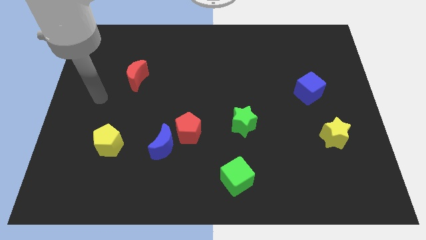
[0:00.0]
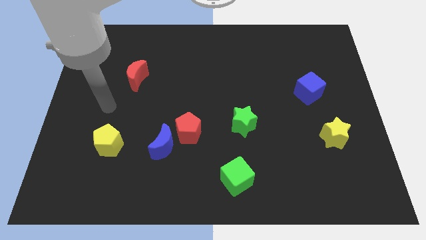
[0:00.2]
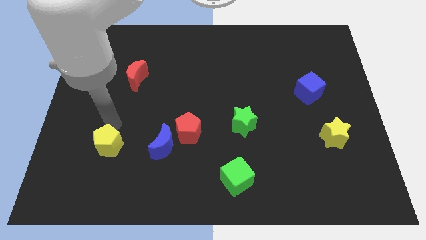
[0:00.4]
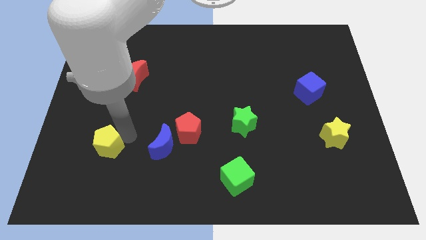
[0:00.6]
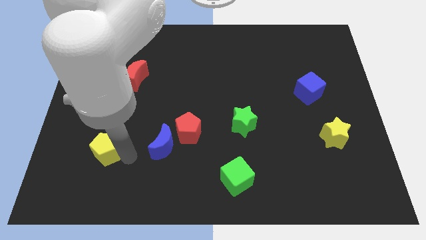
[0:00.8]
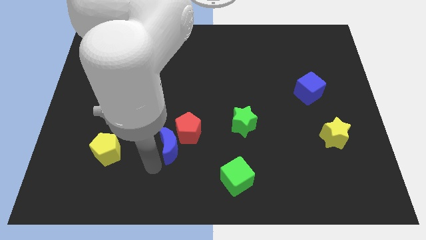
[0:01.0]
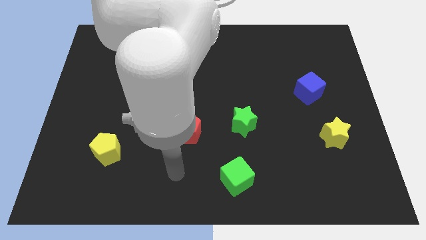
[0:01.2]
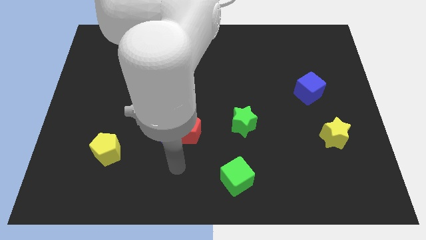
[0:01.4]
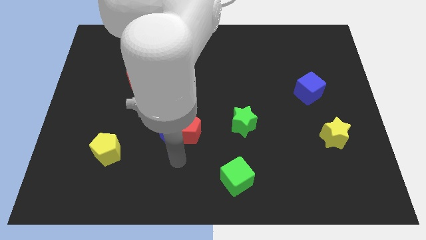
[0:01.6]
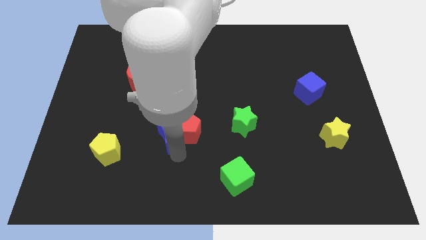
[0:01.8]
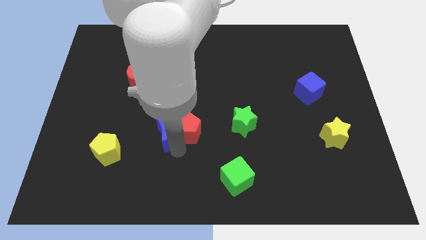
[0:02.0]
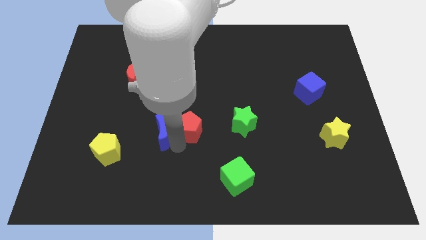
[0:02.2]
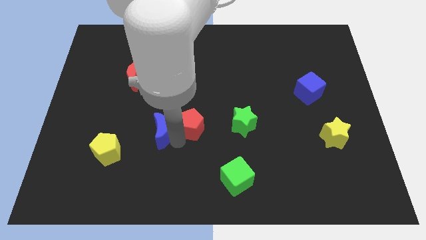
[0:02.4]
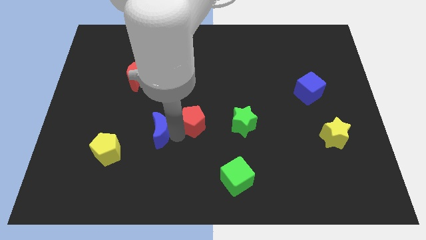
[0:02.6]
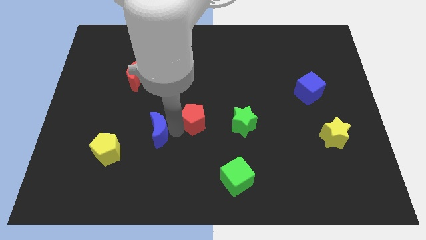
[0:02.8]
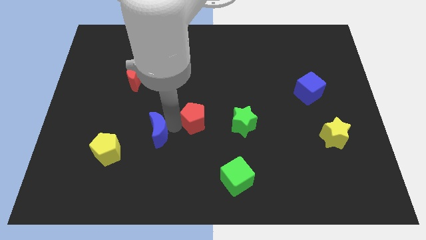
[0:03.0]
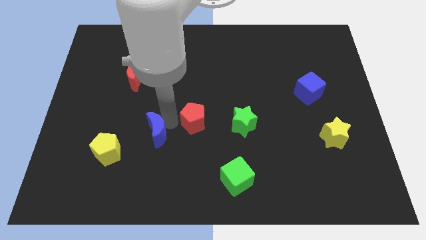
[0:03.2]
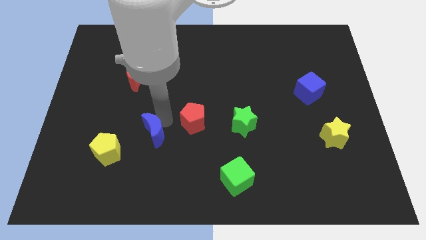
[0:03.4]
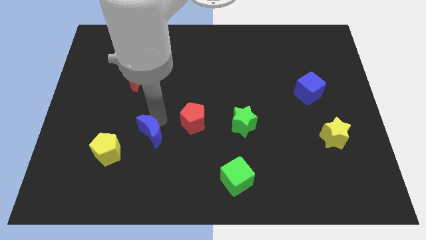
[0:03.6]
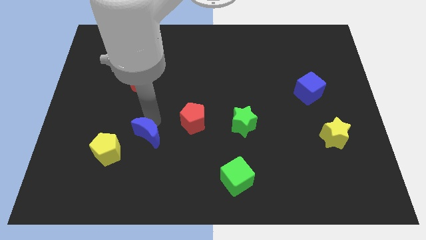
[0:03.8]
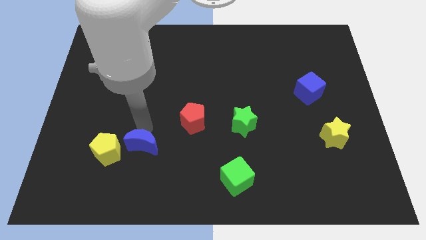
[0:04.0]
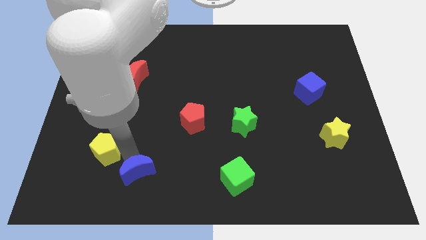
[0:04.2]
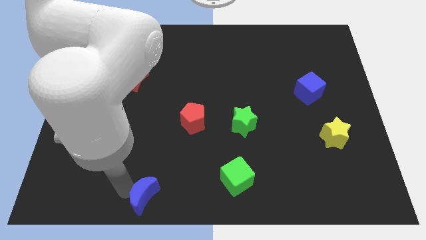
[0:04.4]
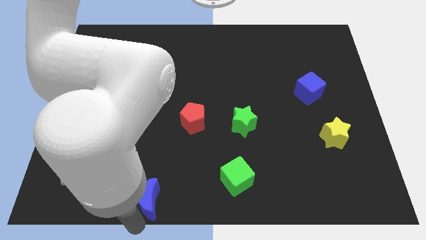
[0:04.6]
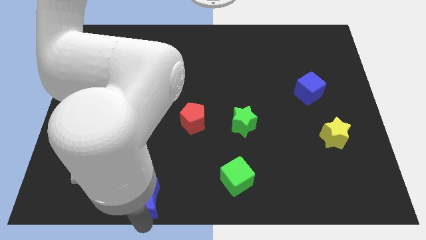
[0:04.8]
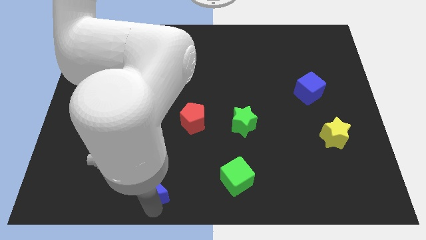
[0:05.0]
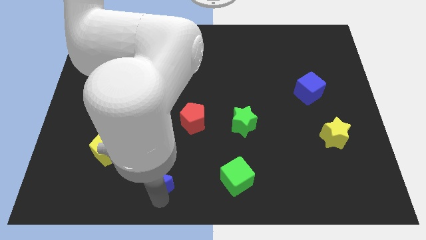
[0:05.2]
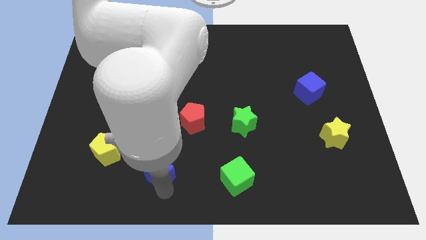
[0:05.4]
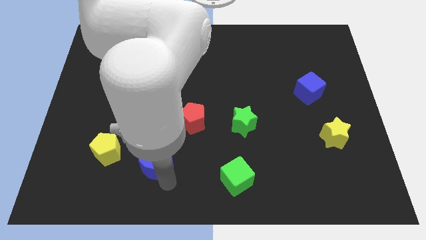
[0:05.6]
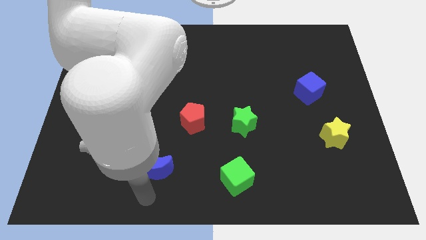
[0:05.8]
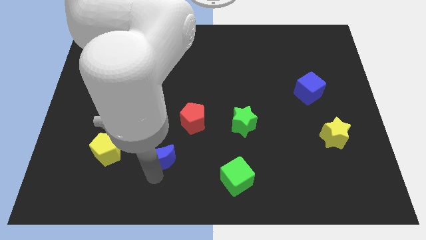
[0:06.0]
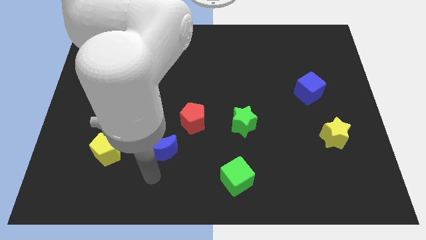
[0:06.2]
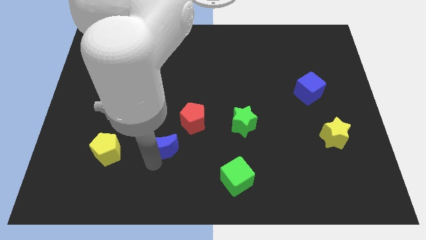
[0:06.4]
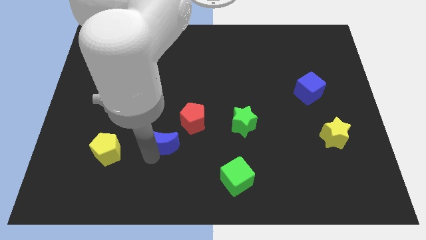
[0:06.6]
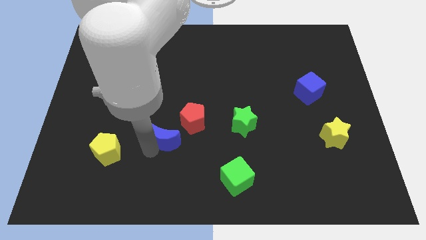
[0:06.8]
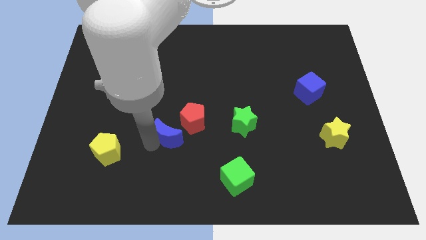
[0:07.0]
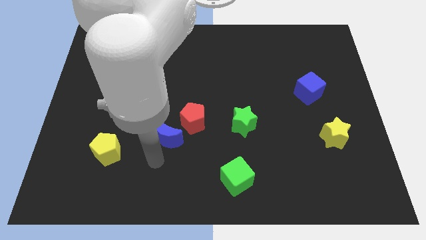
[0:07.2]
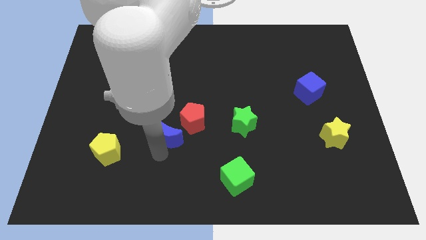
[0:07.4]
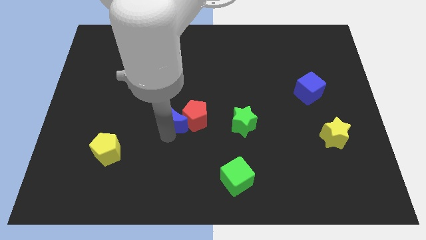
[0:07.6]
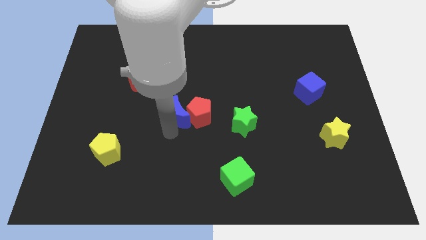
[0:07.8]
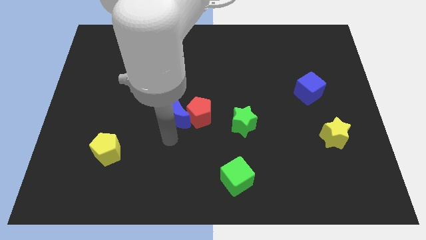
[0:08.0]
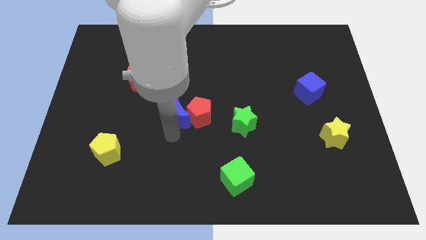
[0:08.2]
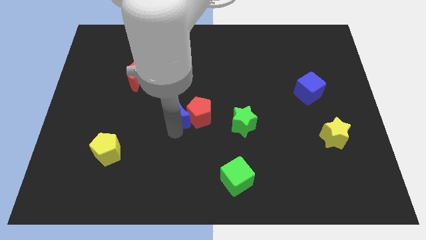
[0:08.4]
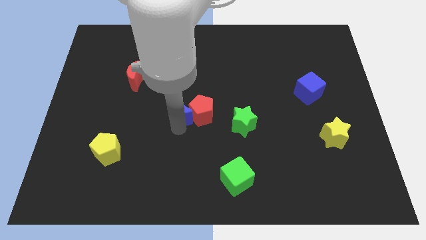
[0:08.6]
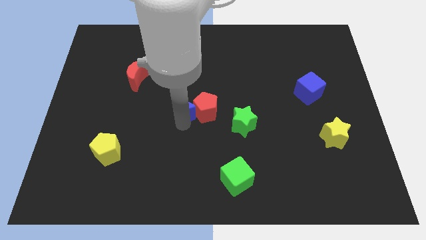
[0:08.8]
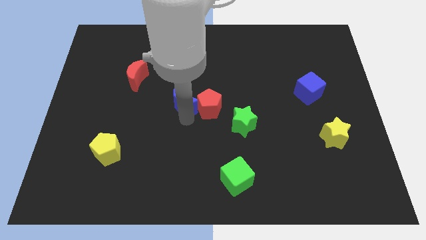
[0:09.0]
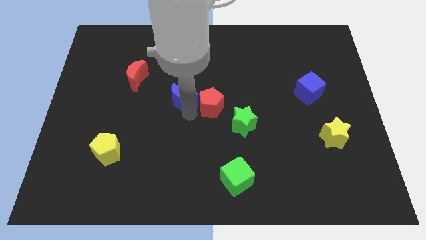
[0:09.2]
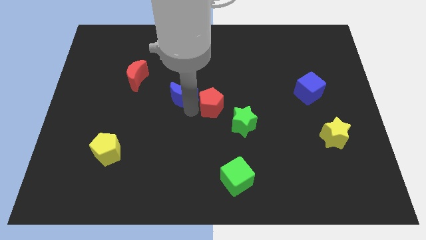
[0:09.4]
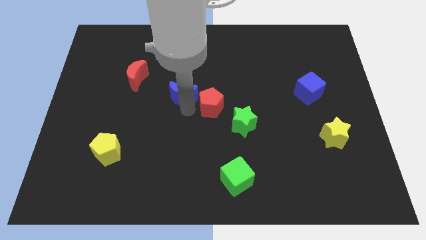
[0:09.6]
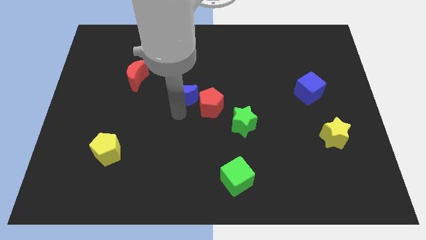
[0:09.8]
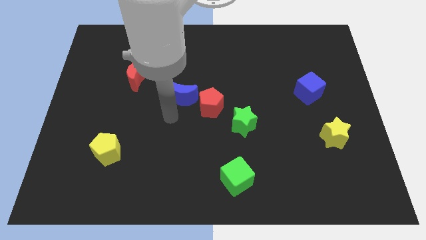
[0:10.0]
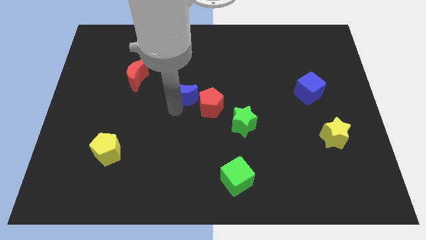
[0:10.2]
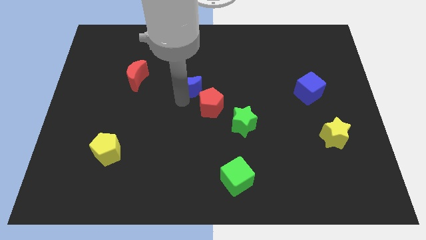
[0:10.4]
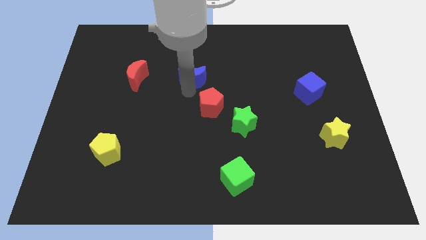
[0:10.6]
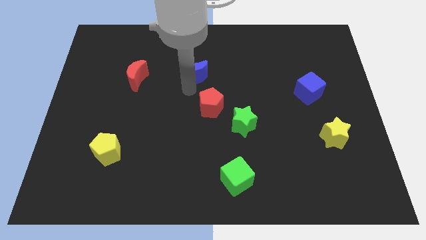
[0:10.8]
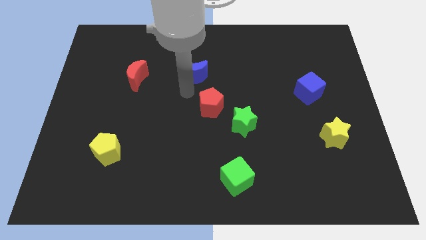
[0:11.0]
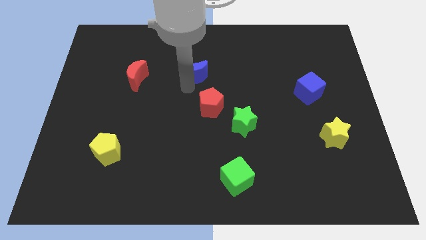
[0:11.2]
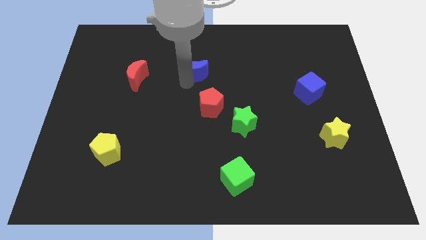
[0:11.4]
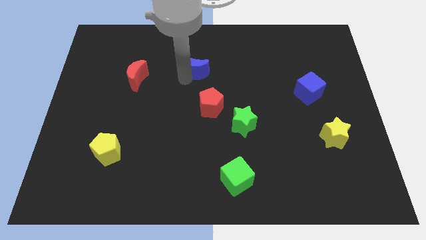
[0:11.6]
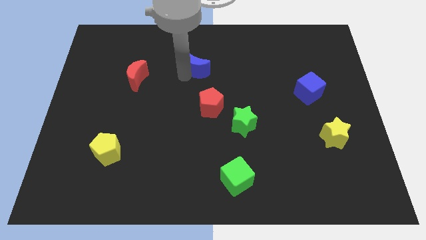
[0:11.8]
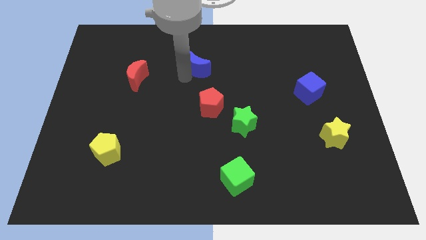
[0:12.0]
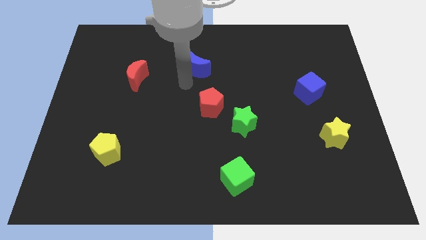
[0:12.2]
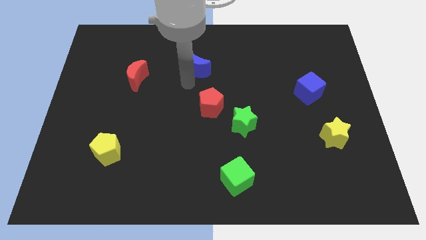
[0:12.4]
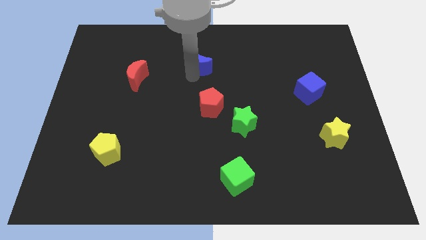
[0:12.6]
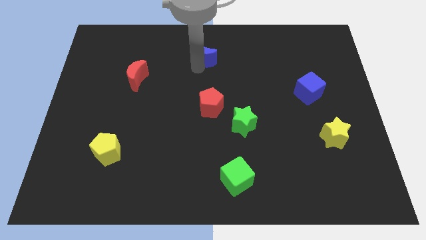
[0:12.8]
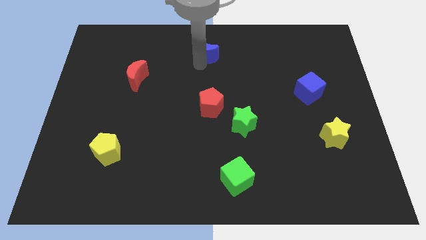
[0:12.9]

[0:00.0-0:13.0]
slide the blue moon to the top side
